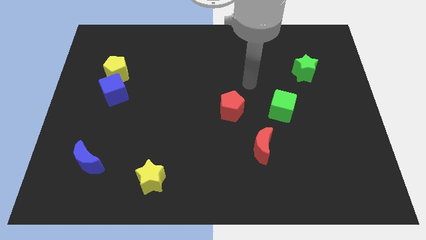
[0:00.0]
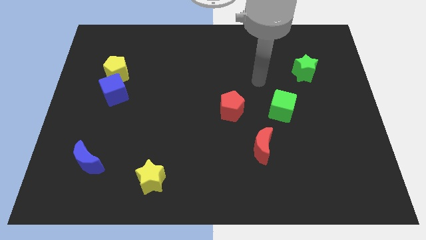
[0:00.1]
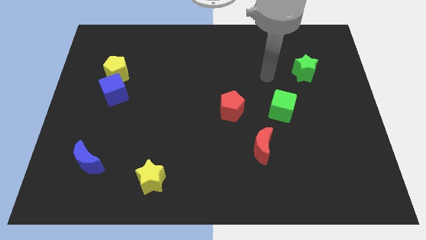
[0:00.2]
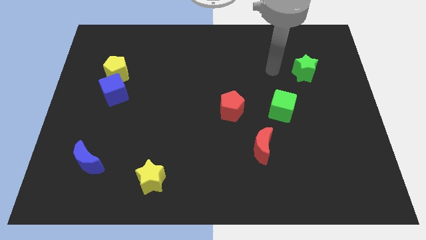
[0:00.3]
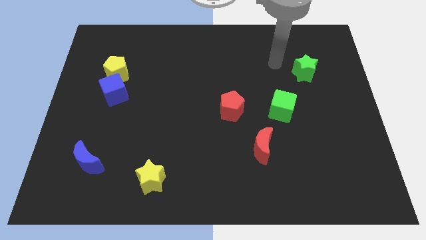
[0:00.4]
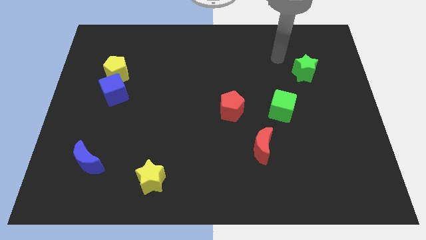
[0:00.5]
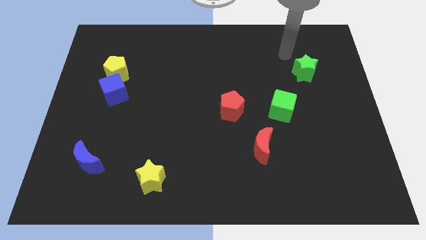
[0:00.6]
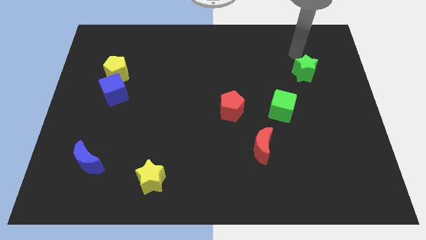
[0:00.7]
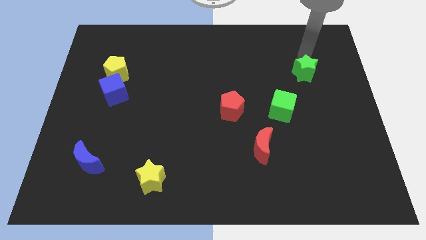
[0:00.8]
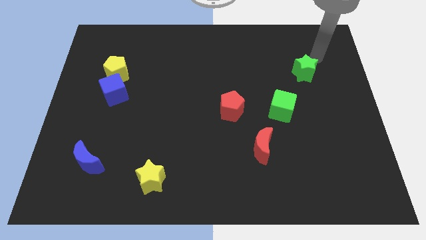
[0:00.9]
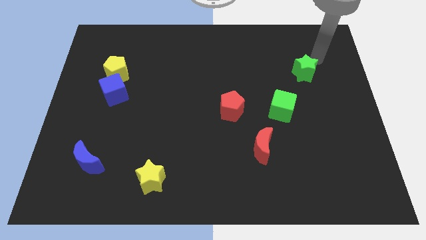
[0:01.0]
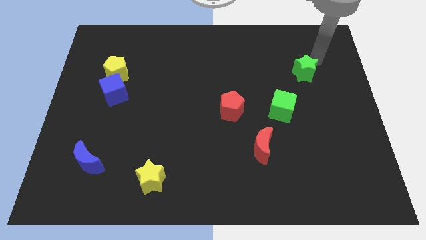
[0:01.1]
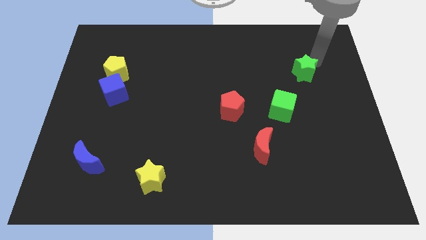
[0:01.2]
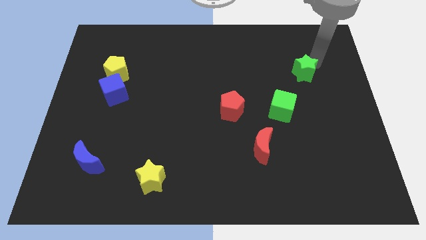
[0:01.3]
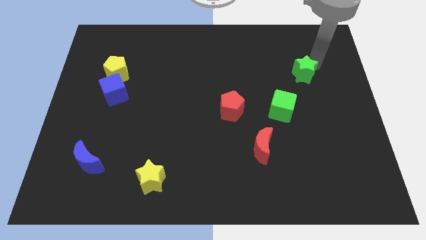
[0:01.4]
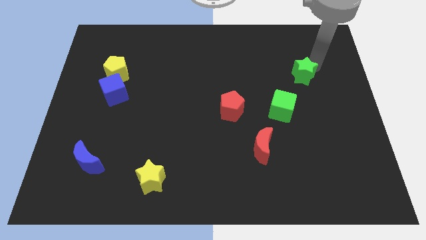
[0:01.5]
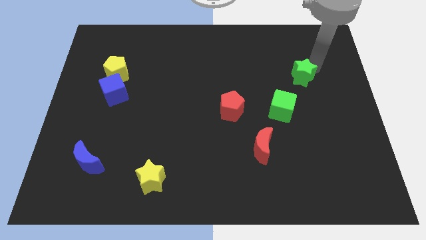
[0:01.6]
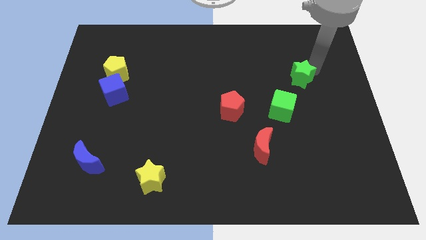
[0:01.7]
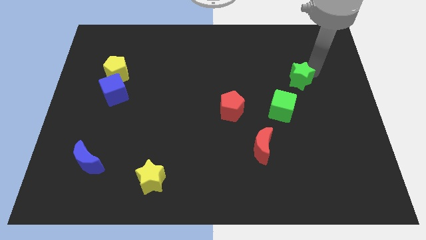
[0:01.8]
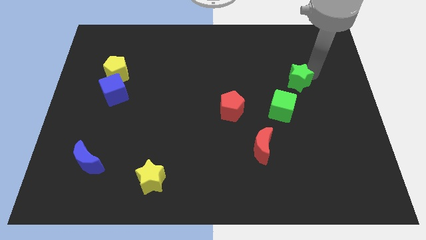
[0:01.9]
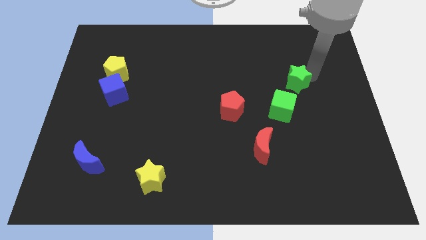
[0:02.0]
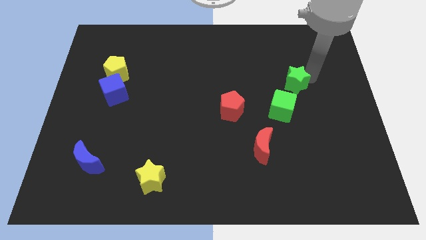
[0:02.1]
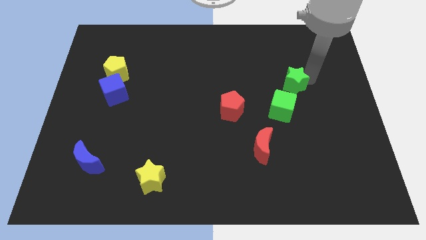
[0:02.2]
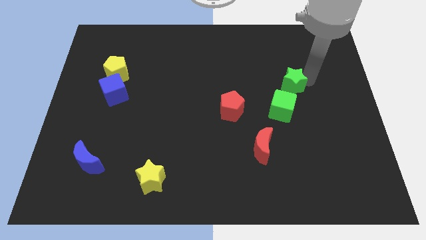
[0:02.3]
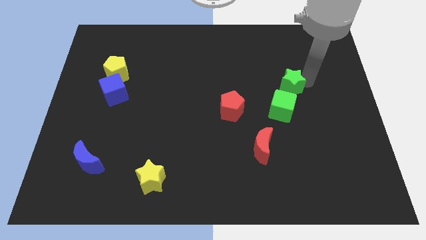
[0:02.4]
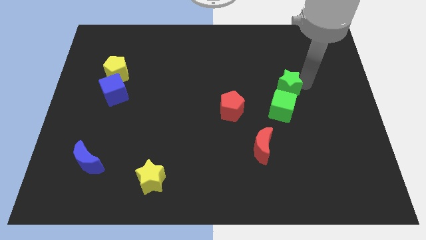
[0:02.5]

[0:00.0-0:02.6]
move the green star down and left a little

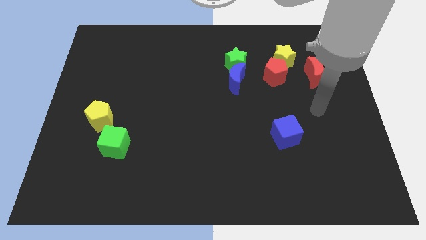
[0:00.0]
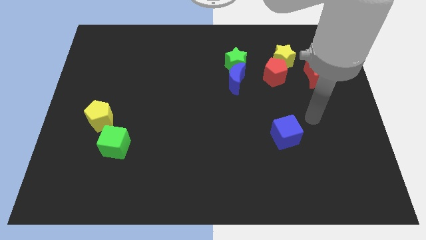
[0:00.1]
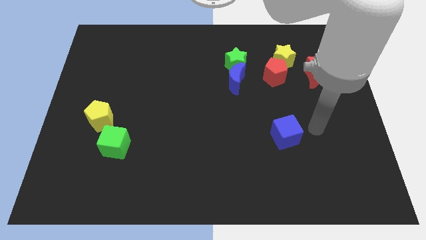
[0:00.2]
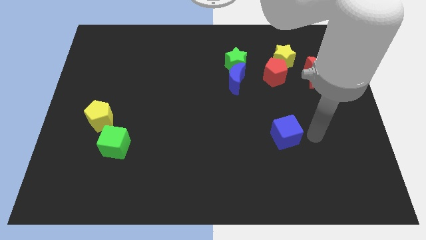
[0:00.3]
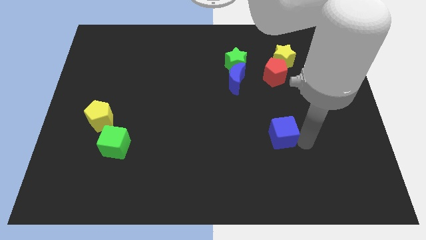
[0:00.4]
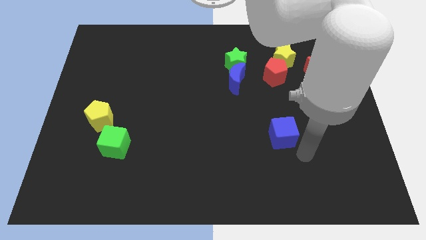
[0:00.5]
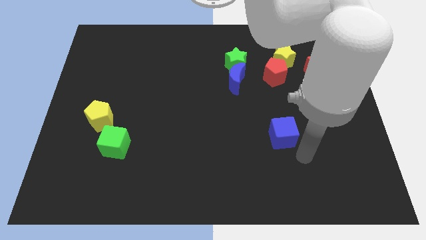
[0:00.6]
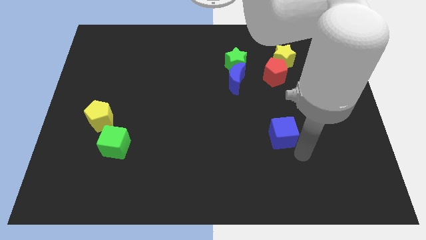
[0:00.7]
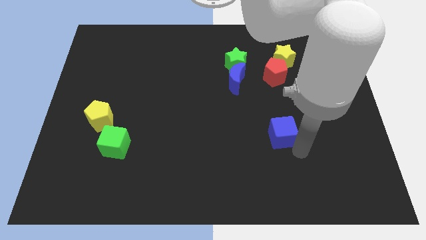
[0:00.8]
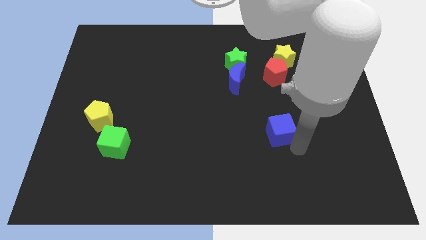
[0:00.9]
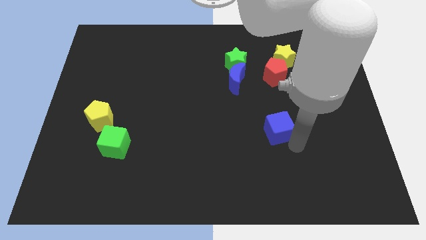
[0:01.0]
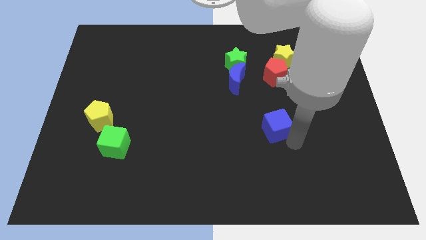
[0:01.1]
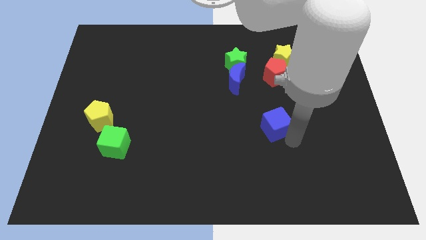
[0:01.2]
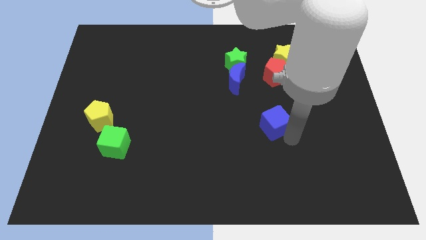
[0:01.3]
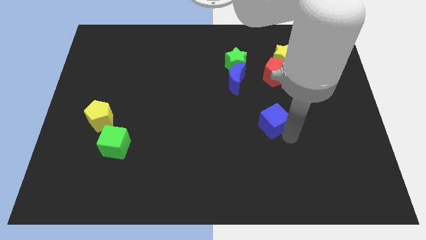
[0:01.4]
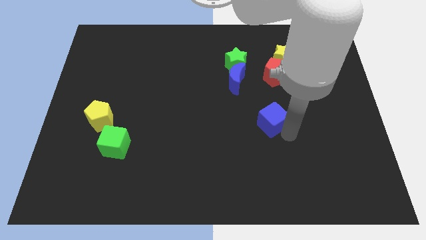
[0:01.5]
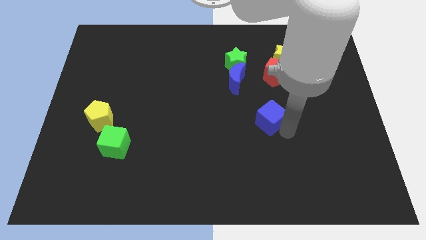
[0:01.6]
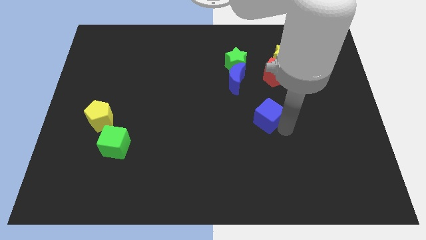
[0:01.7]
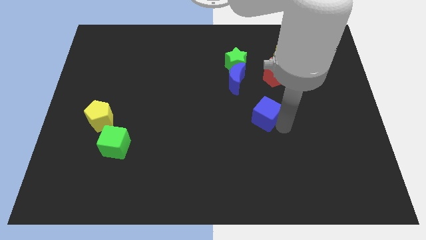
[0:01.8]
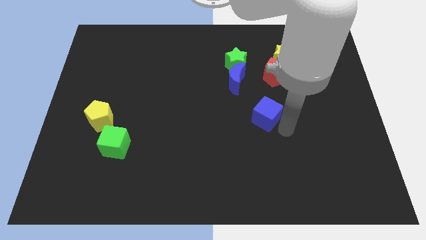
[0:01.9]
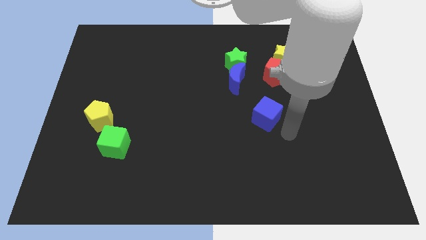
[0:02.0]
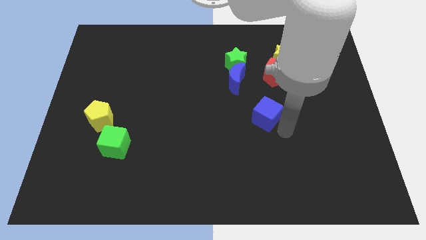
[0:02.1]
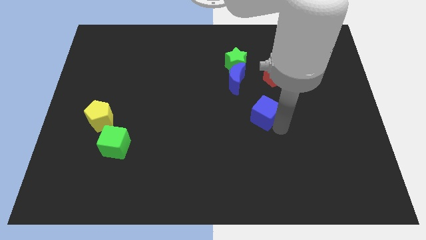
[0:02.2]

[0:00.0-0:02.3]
slightly push the blue cube upwards and left diagonally

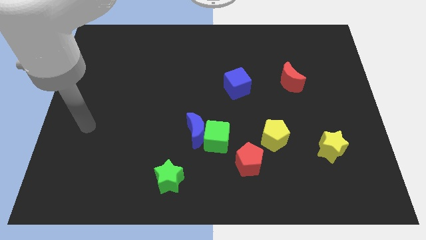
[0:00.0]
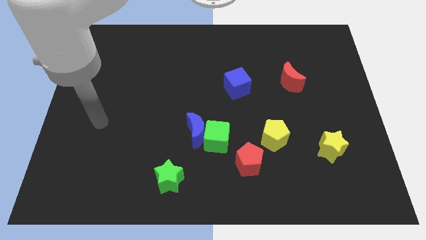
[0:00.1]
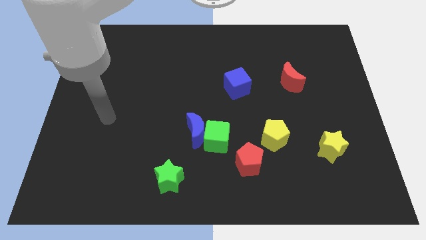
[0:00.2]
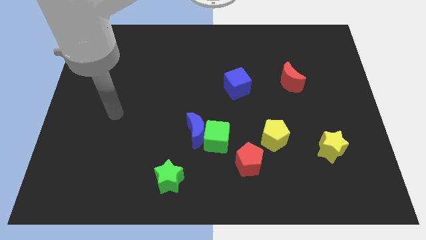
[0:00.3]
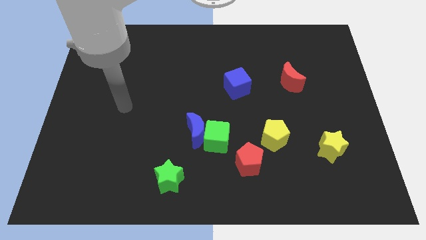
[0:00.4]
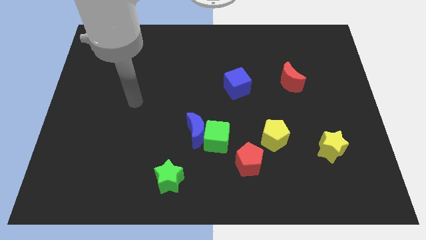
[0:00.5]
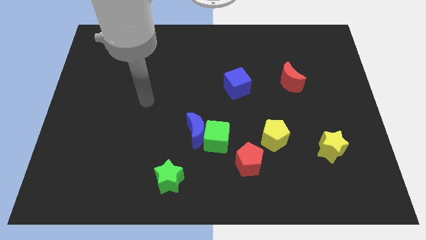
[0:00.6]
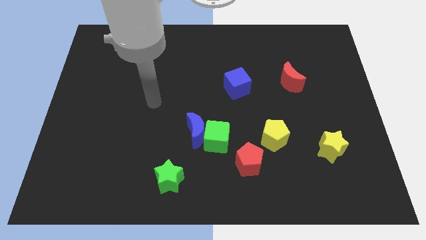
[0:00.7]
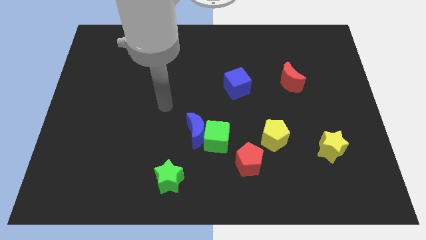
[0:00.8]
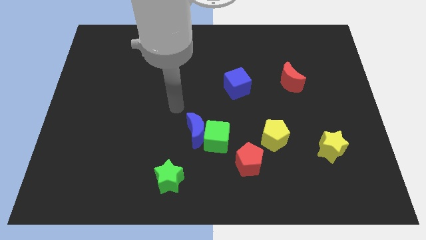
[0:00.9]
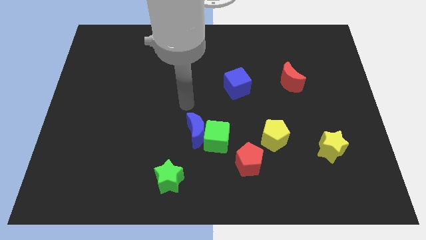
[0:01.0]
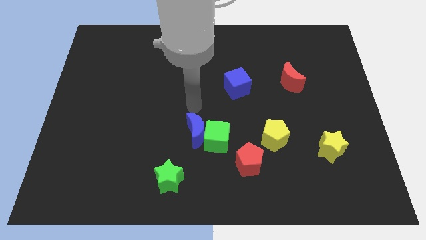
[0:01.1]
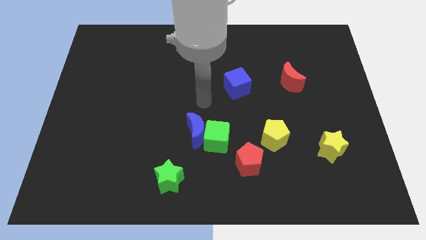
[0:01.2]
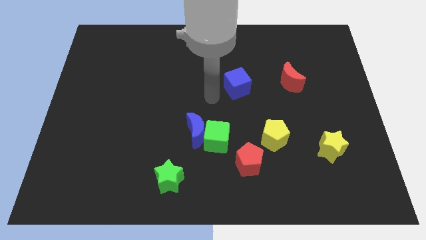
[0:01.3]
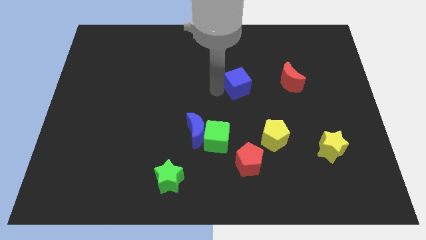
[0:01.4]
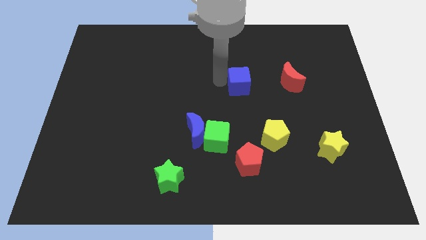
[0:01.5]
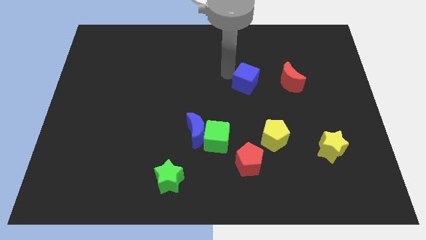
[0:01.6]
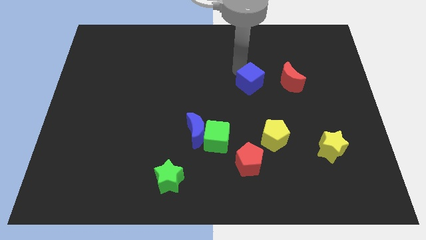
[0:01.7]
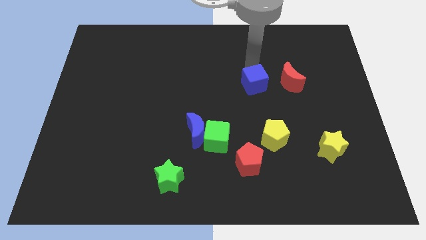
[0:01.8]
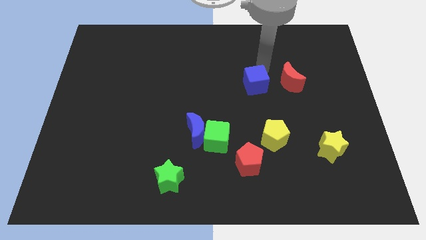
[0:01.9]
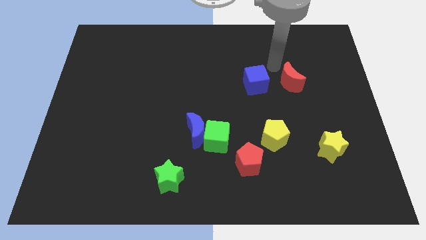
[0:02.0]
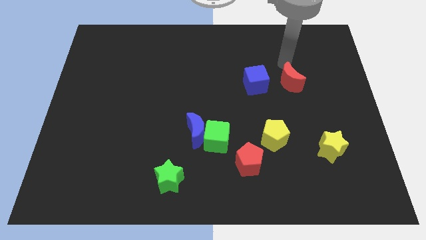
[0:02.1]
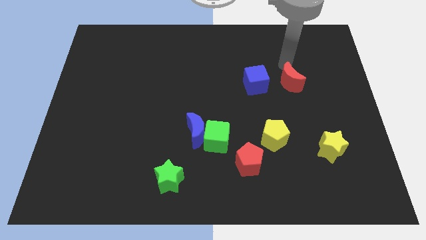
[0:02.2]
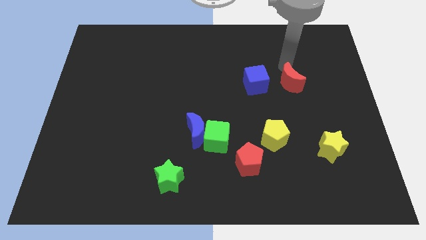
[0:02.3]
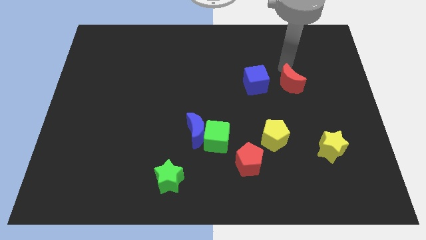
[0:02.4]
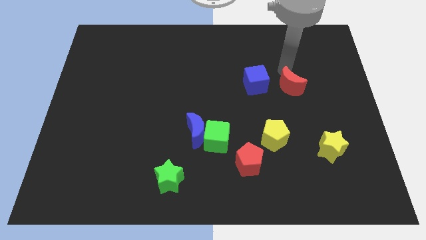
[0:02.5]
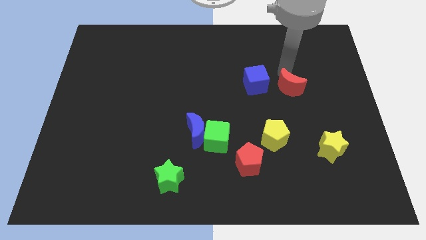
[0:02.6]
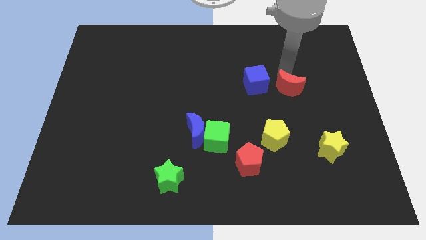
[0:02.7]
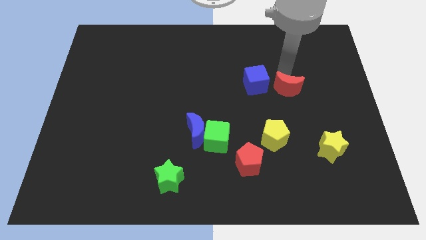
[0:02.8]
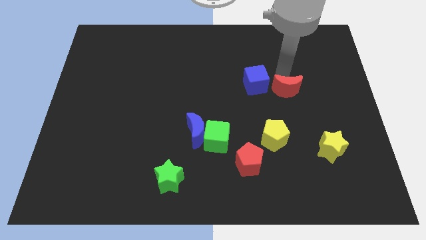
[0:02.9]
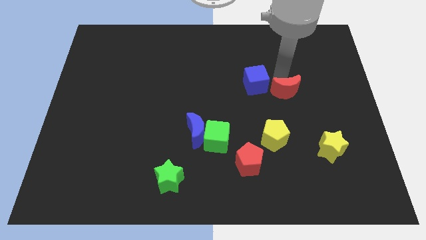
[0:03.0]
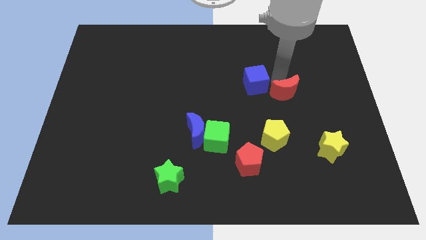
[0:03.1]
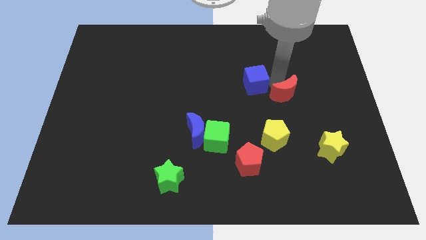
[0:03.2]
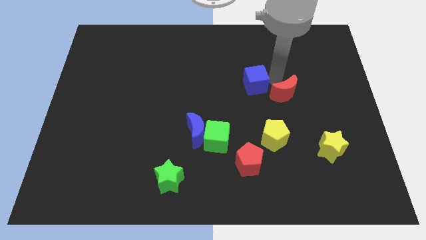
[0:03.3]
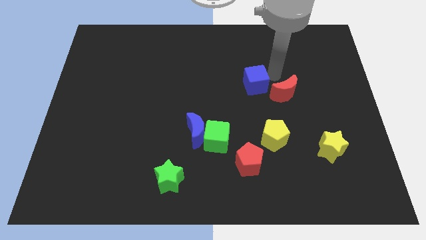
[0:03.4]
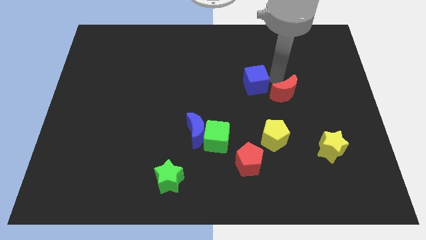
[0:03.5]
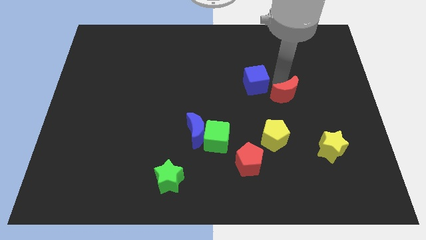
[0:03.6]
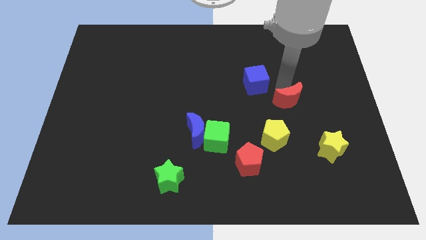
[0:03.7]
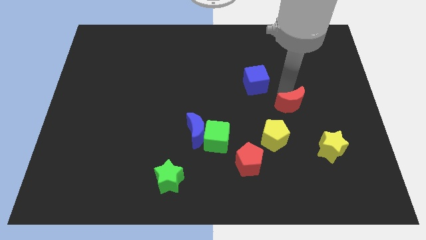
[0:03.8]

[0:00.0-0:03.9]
push the red moon down a bit
